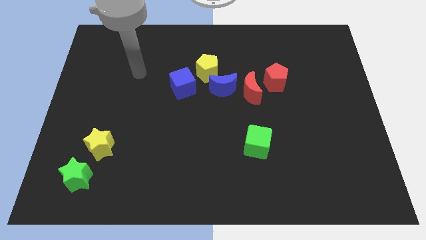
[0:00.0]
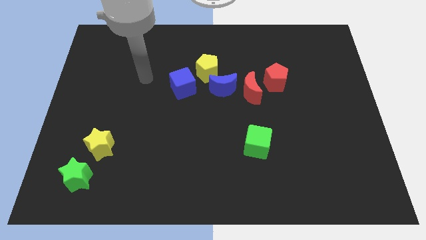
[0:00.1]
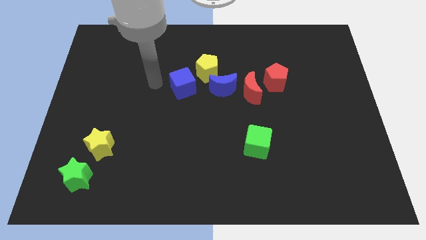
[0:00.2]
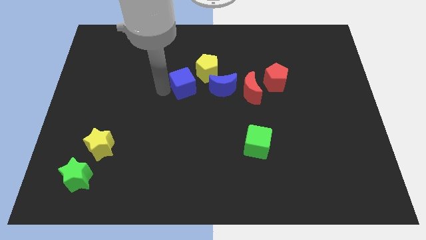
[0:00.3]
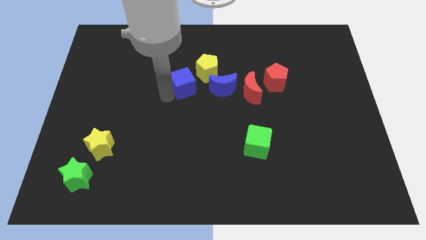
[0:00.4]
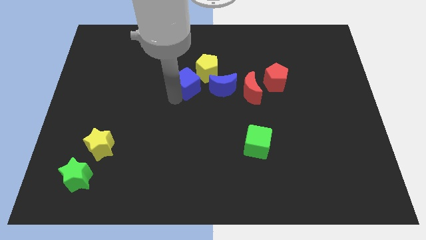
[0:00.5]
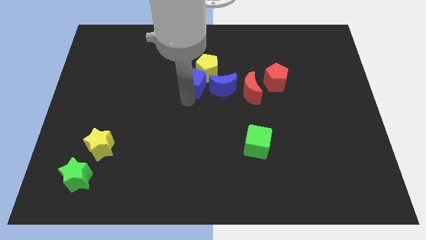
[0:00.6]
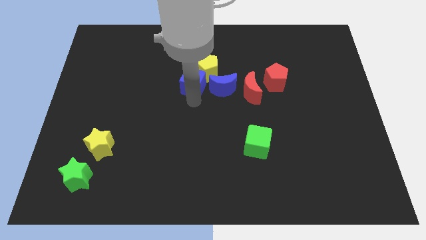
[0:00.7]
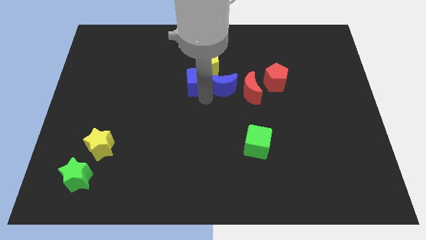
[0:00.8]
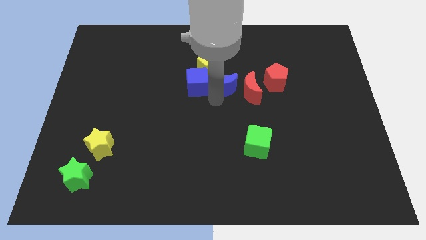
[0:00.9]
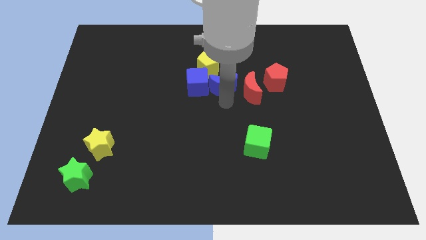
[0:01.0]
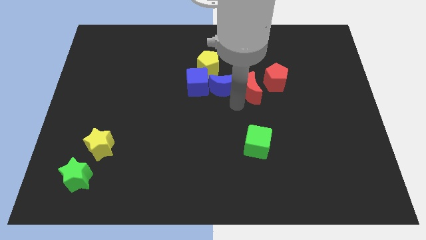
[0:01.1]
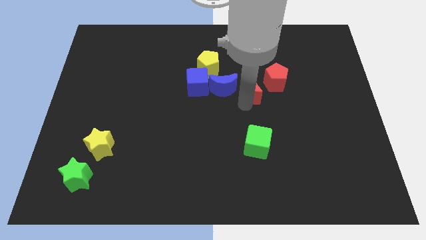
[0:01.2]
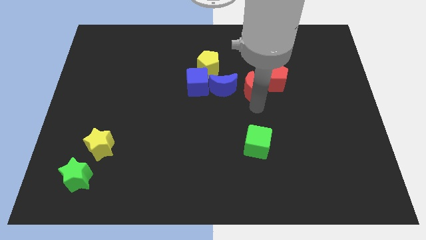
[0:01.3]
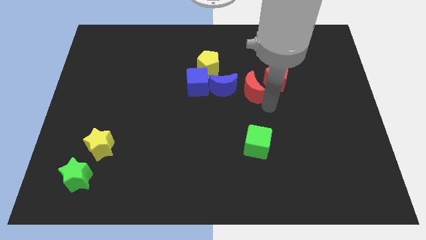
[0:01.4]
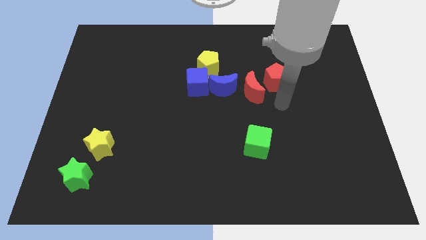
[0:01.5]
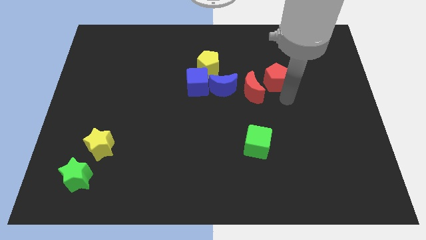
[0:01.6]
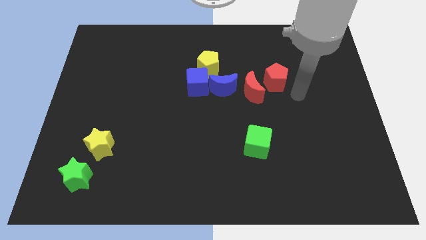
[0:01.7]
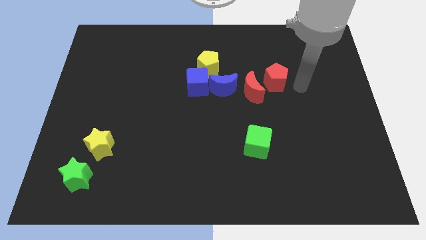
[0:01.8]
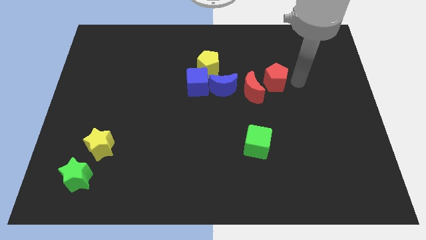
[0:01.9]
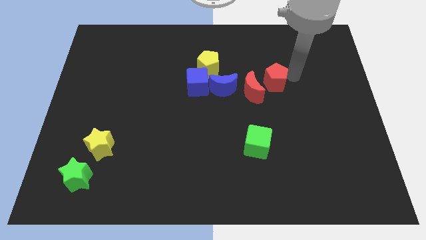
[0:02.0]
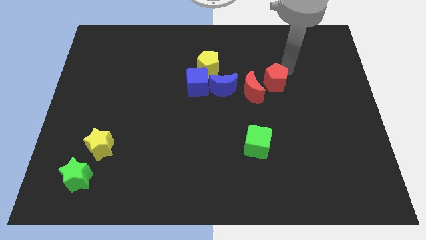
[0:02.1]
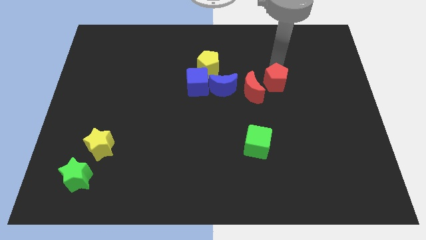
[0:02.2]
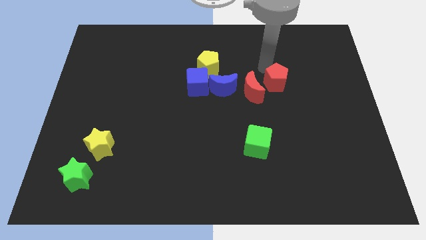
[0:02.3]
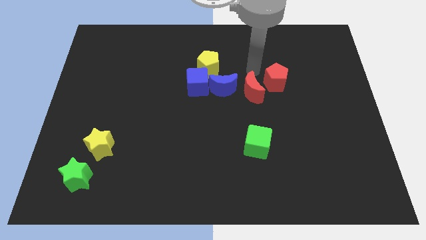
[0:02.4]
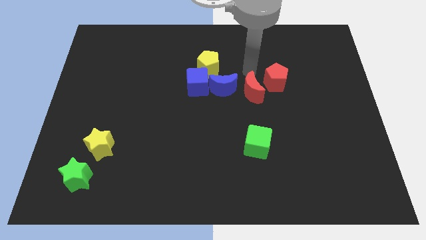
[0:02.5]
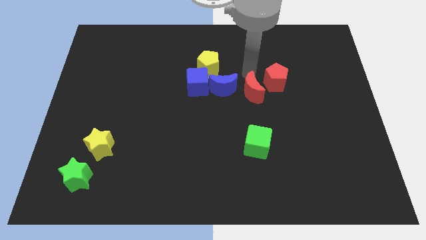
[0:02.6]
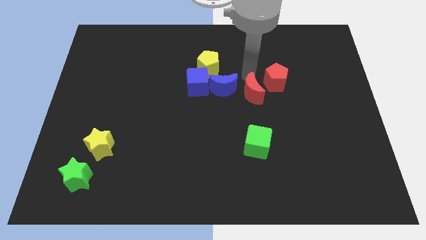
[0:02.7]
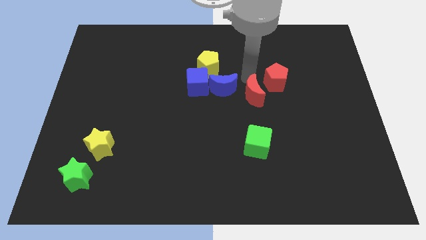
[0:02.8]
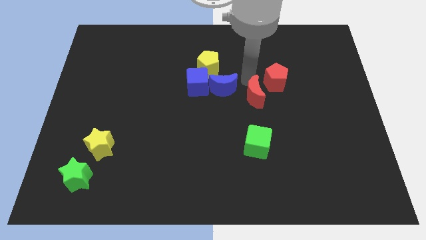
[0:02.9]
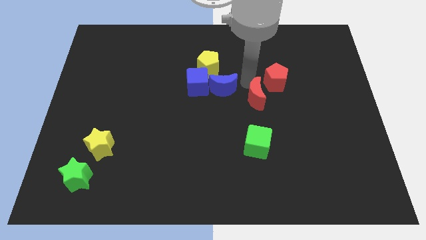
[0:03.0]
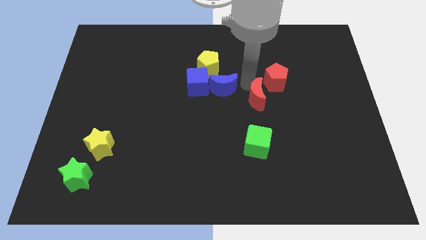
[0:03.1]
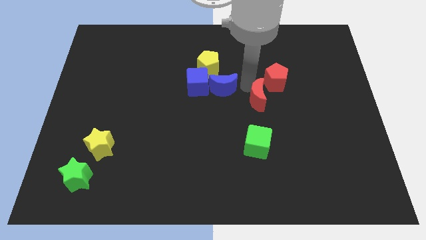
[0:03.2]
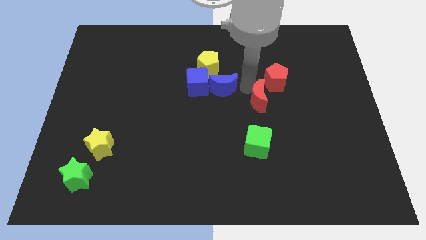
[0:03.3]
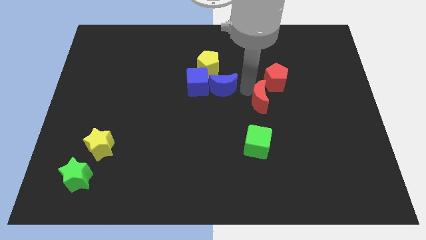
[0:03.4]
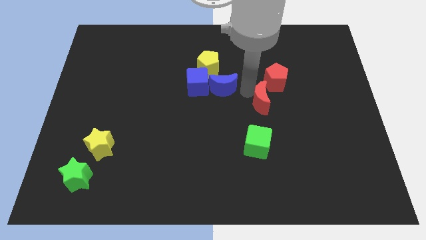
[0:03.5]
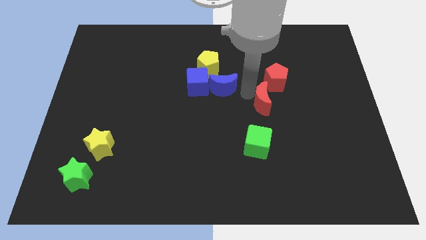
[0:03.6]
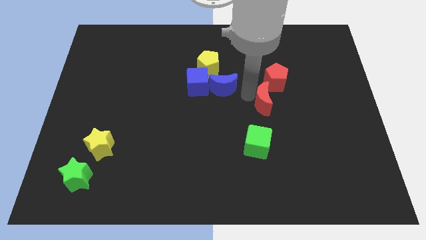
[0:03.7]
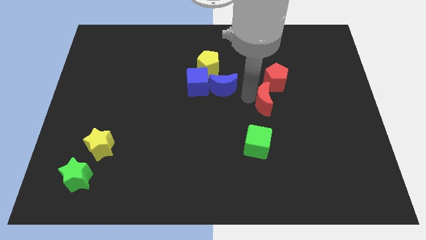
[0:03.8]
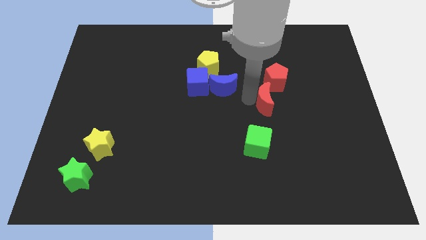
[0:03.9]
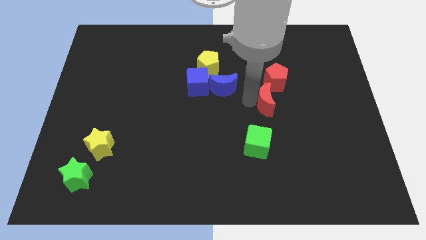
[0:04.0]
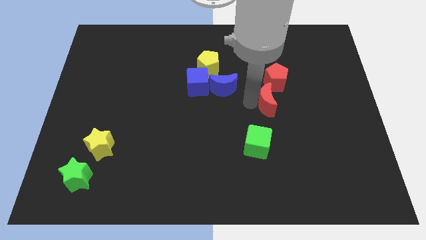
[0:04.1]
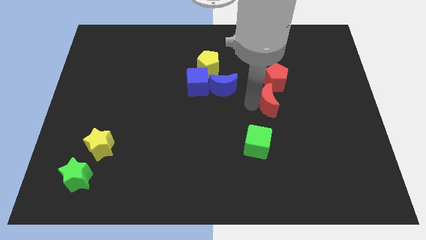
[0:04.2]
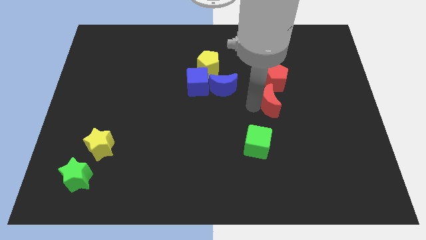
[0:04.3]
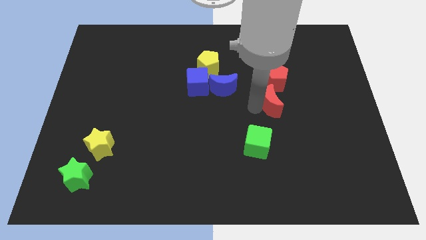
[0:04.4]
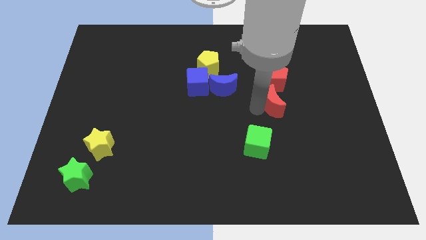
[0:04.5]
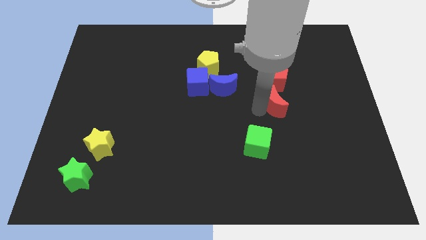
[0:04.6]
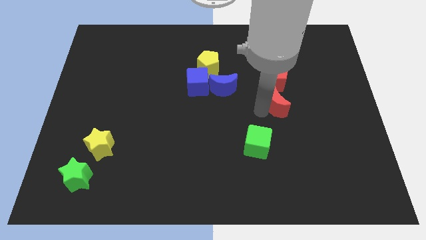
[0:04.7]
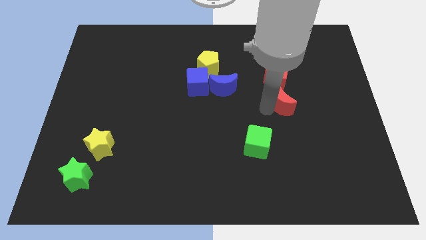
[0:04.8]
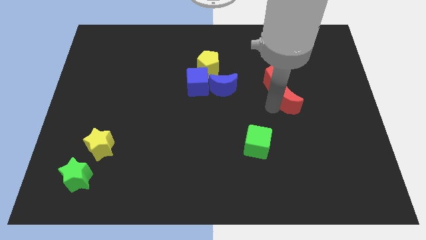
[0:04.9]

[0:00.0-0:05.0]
pull the red moon apart from the blue moon and red pentagon

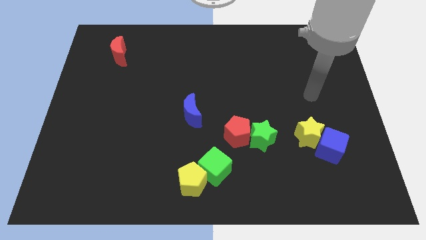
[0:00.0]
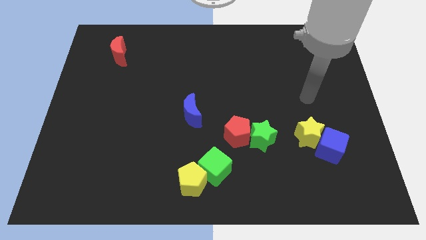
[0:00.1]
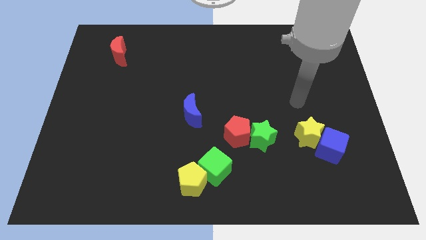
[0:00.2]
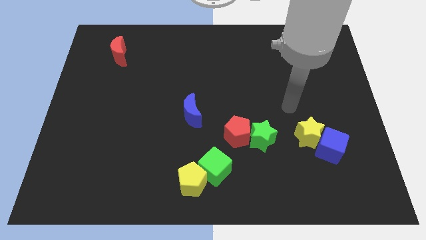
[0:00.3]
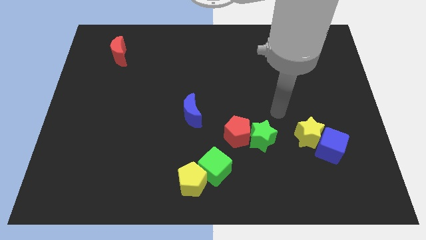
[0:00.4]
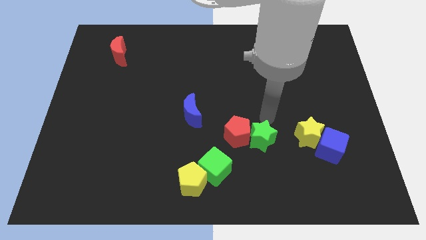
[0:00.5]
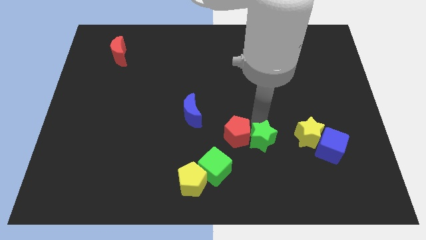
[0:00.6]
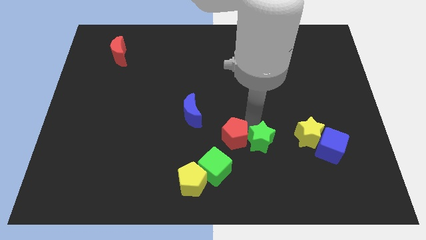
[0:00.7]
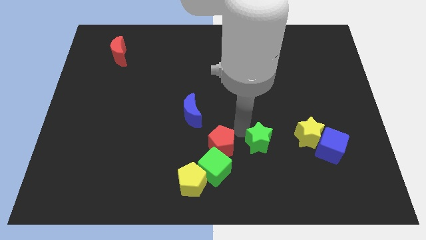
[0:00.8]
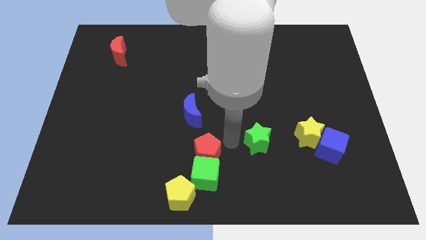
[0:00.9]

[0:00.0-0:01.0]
pull the green star apart from the red pentagon

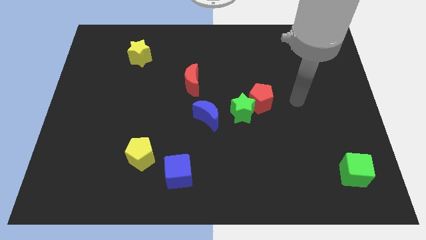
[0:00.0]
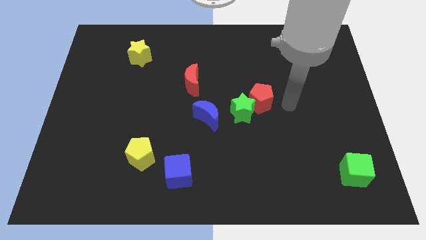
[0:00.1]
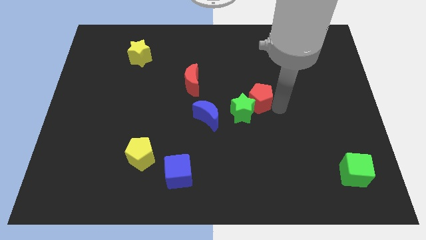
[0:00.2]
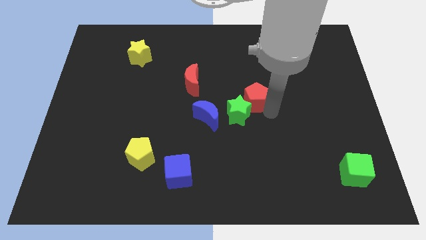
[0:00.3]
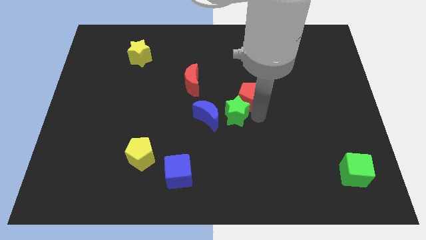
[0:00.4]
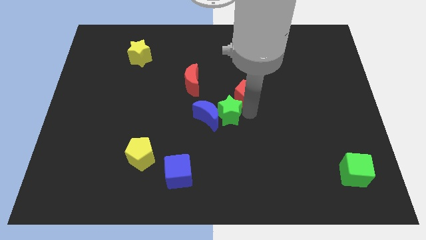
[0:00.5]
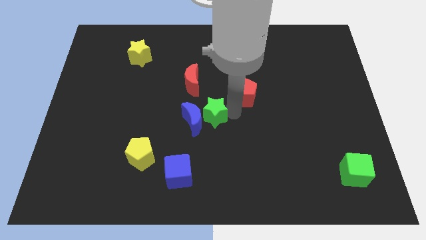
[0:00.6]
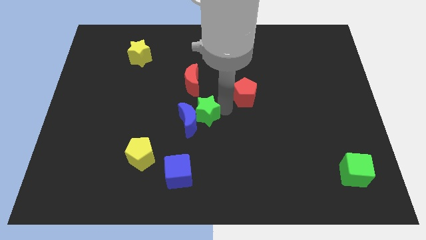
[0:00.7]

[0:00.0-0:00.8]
pull the red pentagon apart from the green star

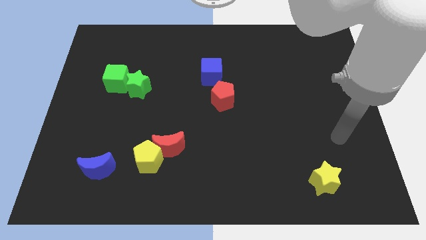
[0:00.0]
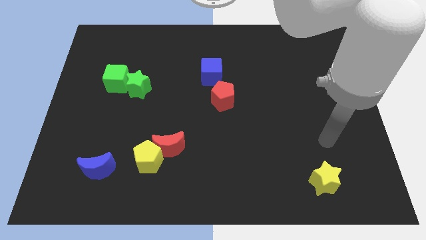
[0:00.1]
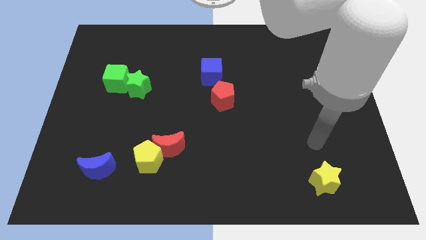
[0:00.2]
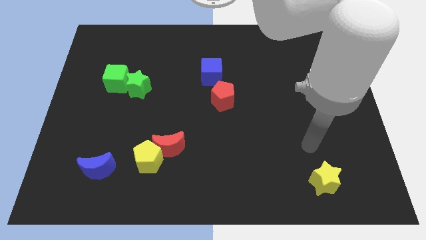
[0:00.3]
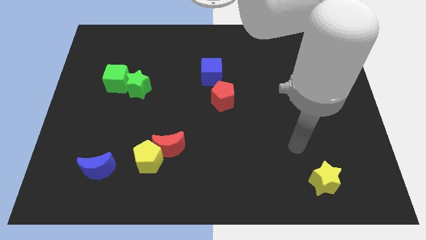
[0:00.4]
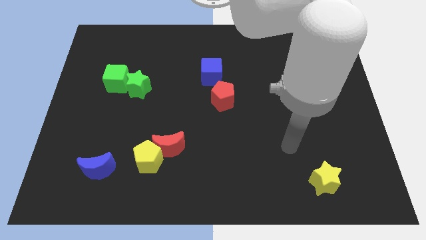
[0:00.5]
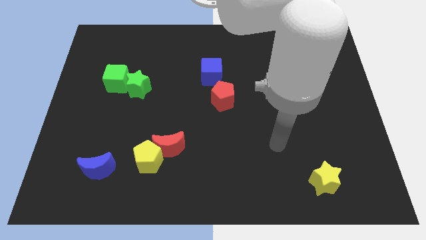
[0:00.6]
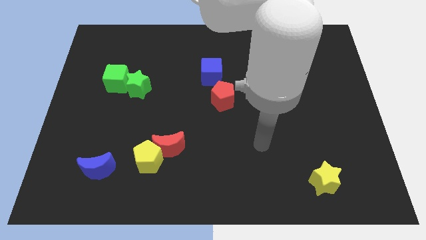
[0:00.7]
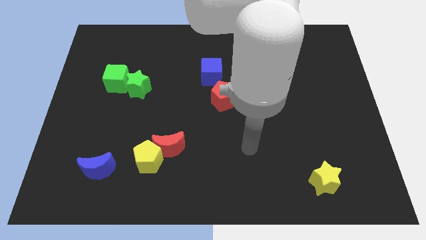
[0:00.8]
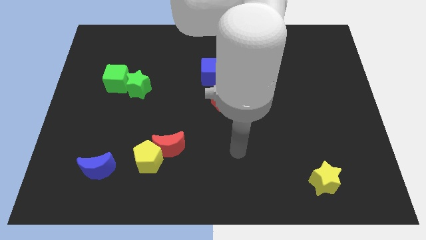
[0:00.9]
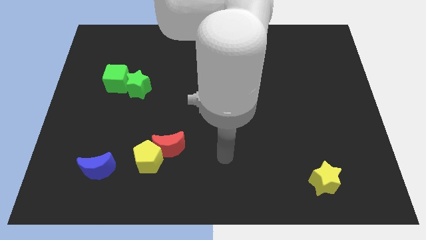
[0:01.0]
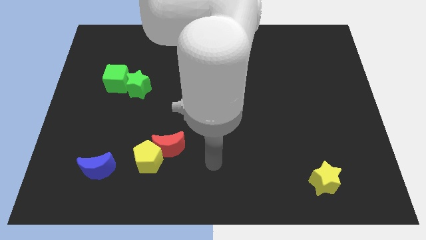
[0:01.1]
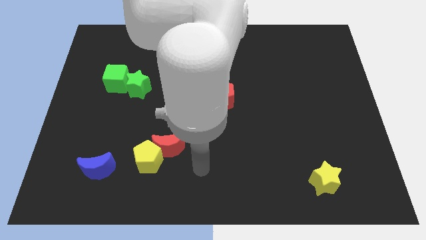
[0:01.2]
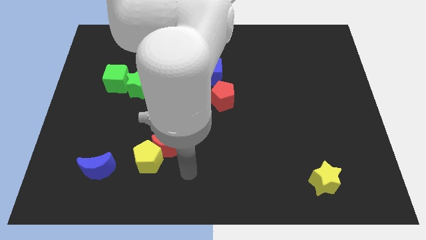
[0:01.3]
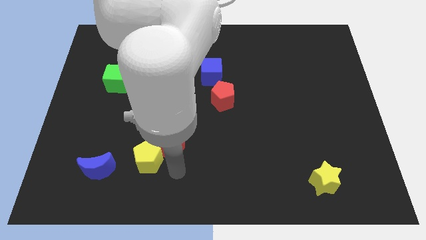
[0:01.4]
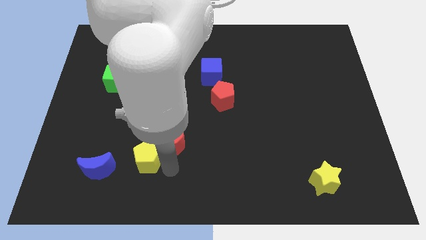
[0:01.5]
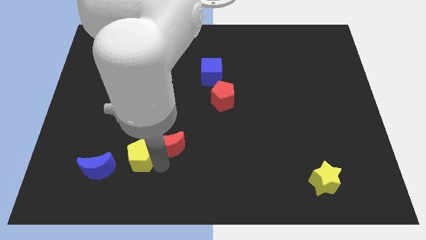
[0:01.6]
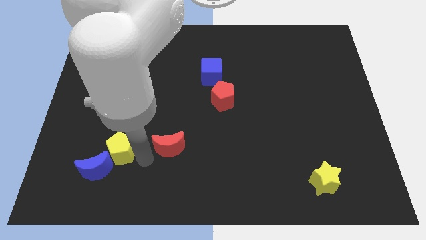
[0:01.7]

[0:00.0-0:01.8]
move the red moon away from the yellow pentagon

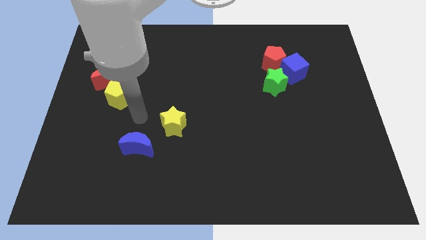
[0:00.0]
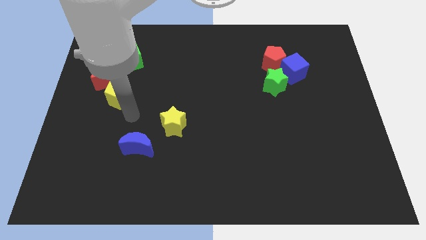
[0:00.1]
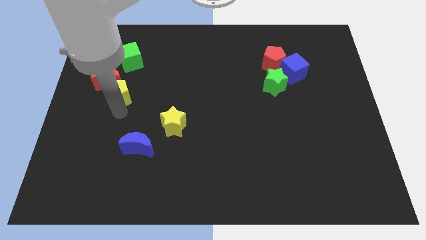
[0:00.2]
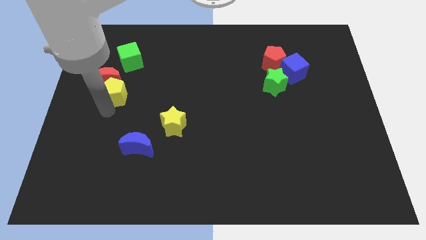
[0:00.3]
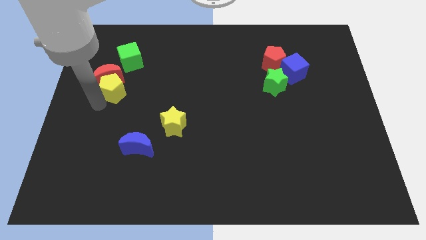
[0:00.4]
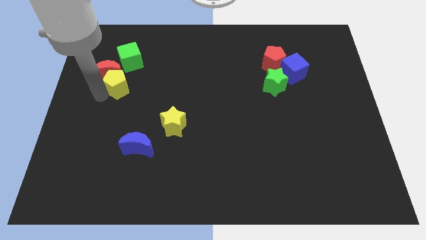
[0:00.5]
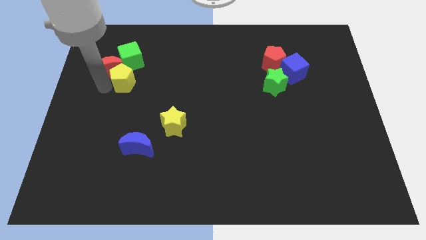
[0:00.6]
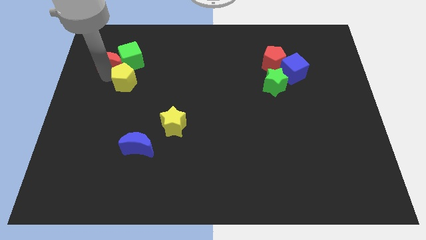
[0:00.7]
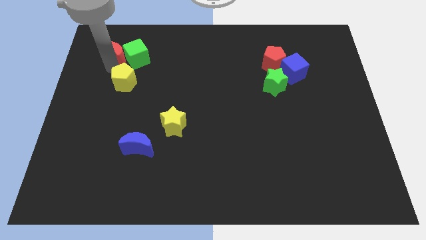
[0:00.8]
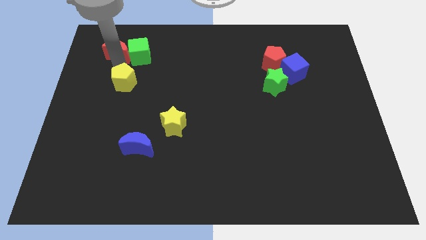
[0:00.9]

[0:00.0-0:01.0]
separate the yellow pentagon from the red moon
